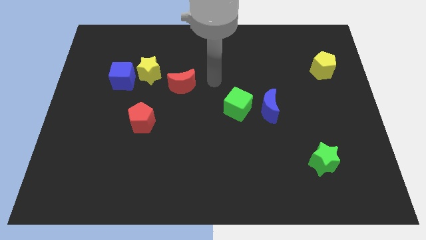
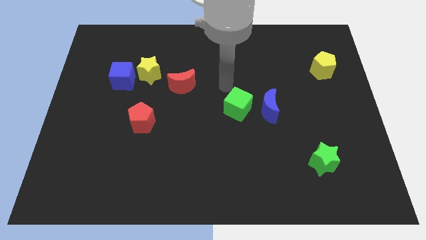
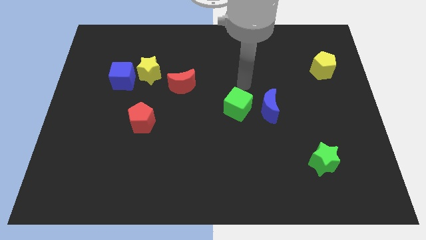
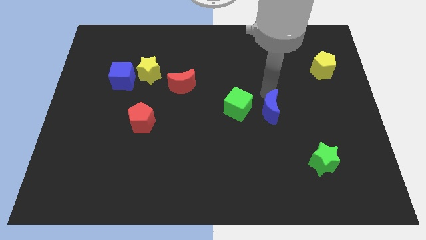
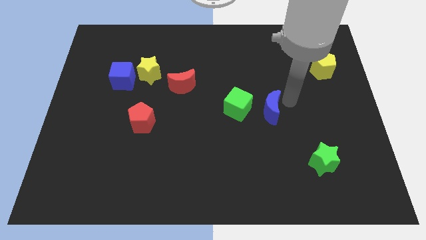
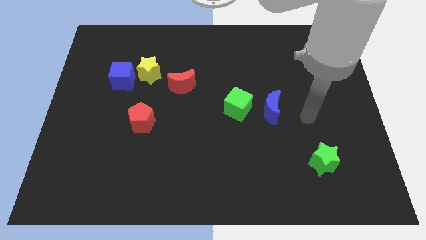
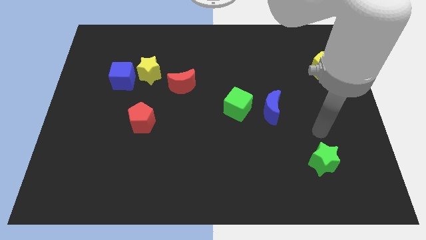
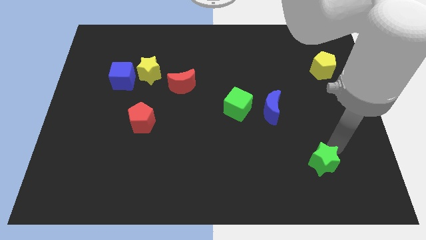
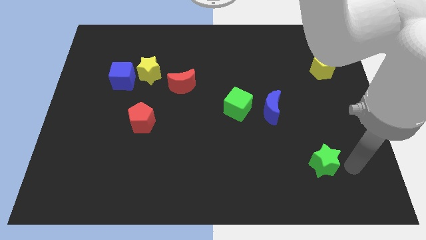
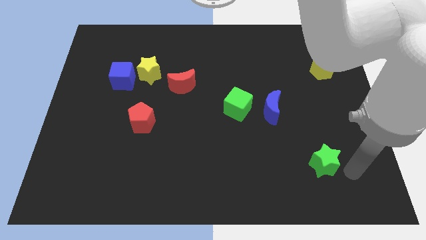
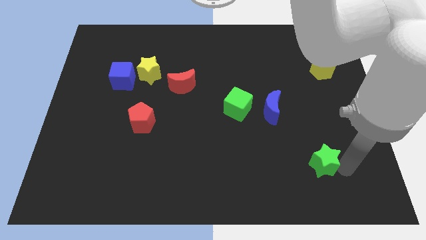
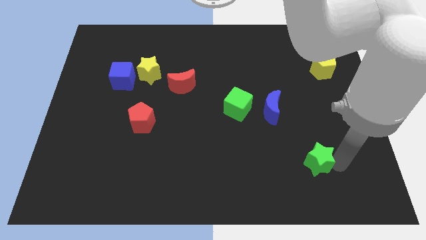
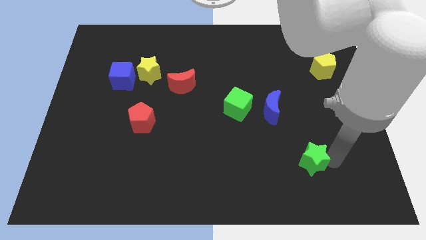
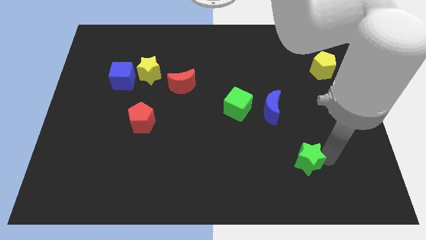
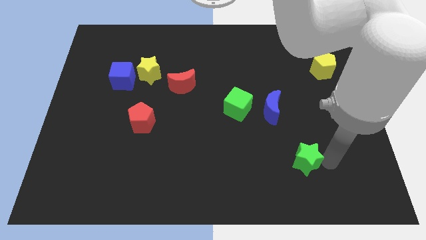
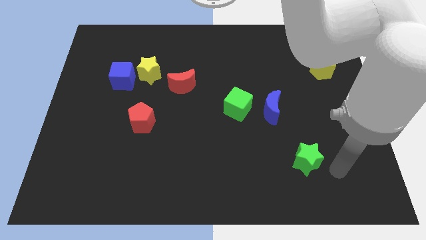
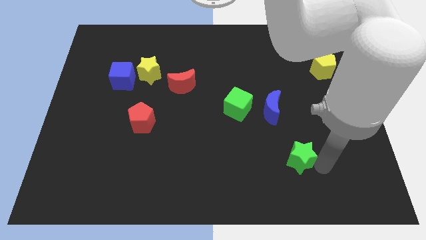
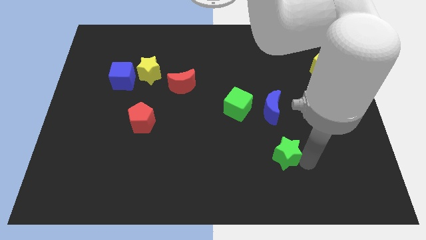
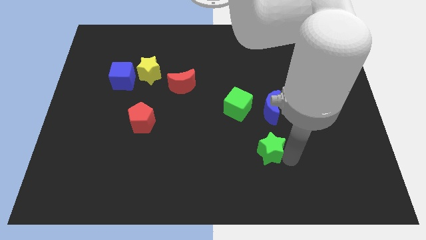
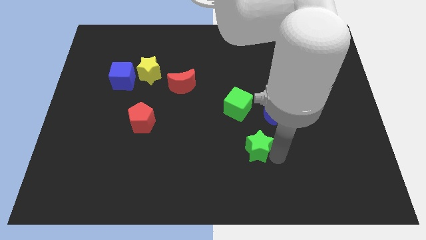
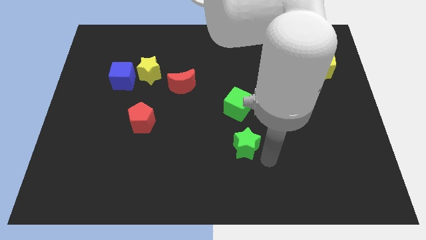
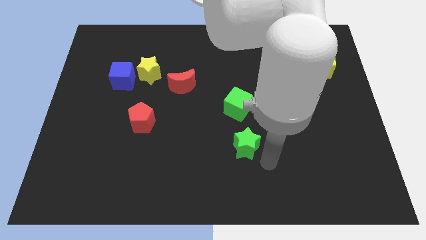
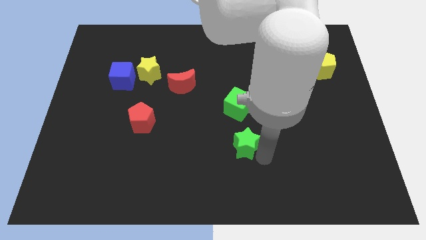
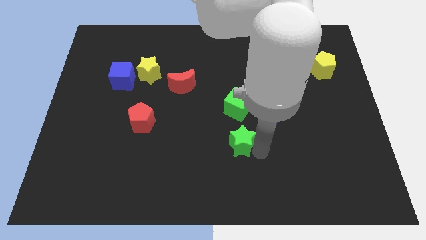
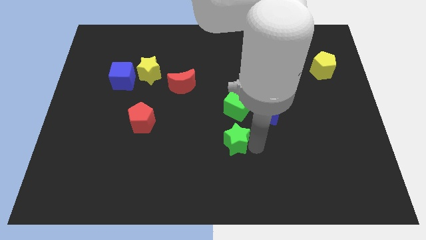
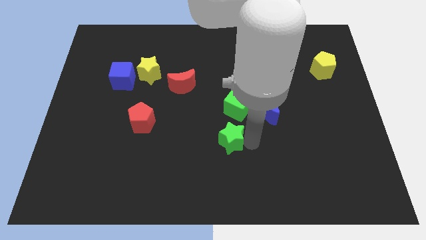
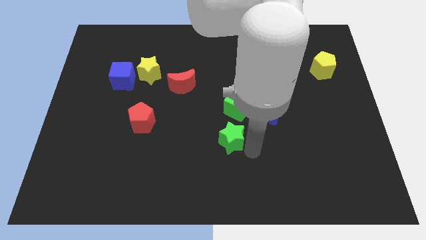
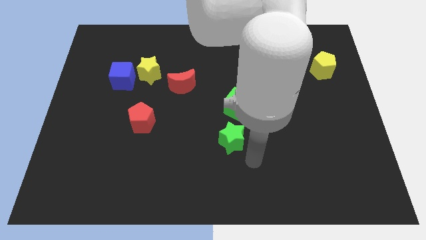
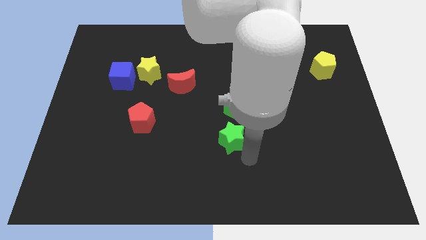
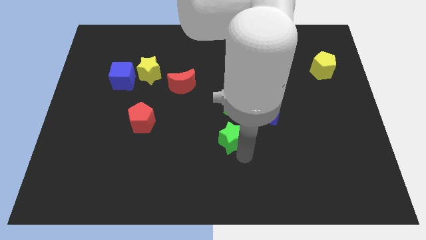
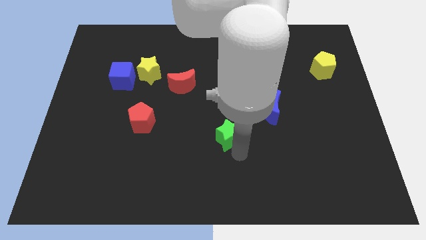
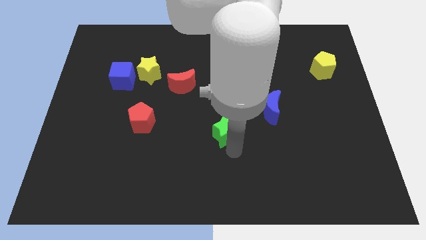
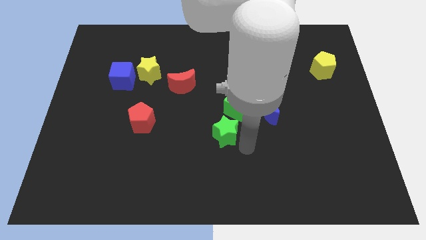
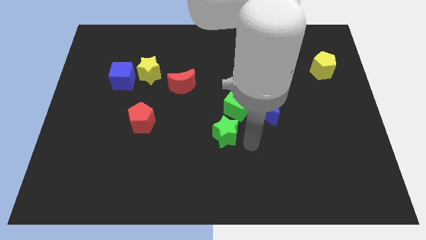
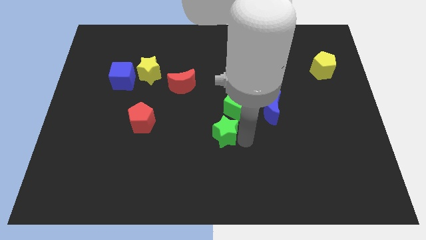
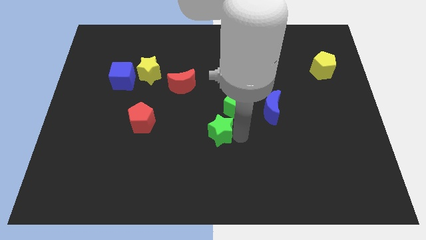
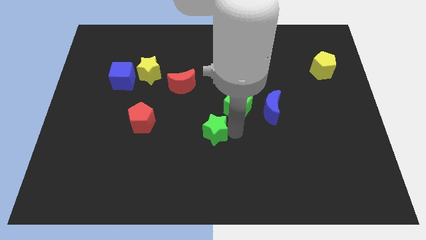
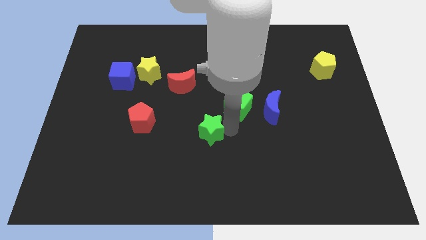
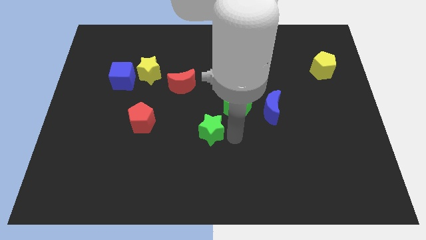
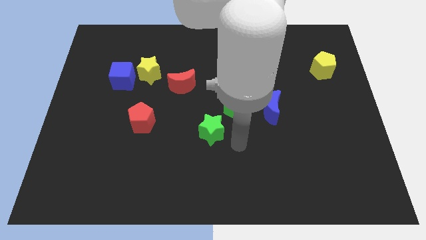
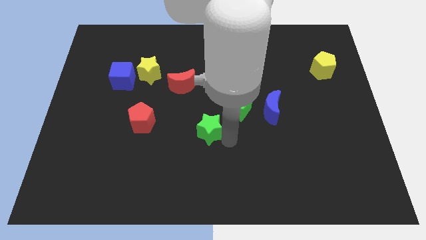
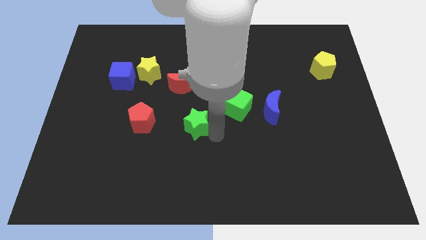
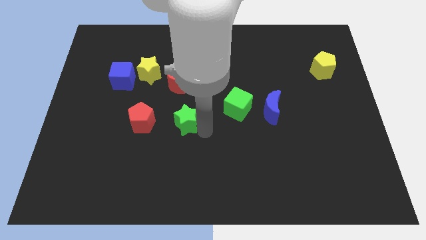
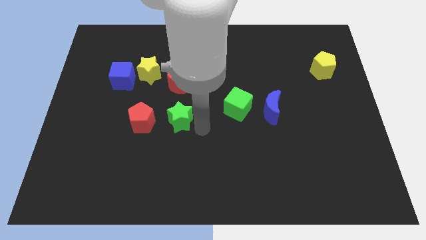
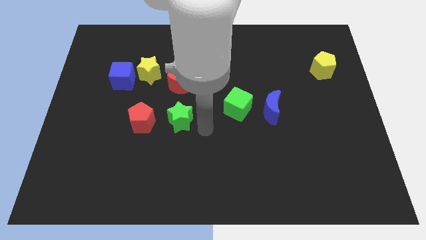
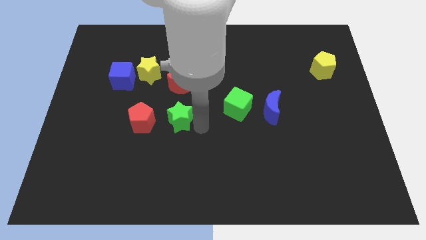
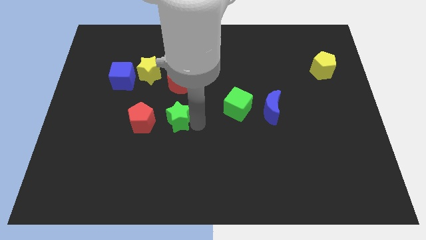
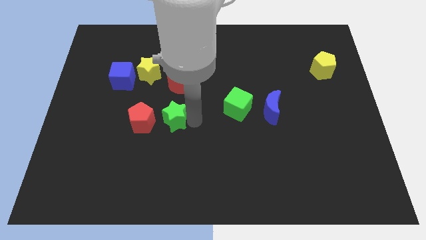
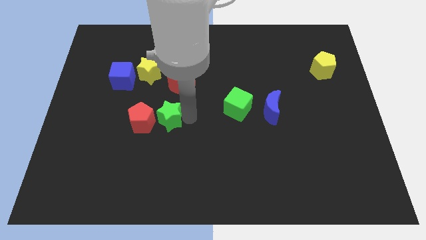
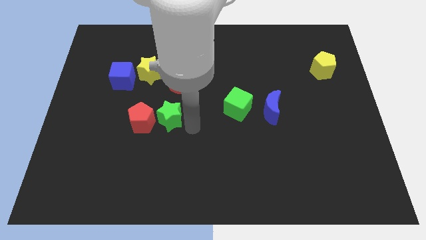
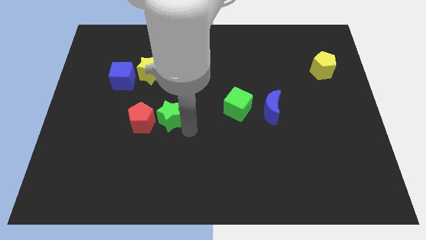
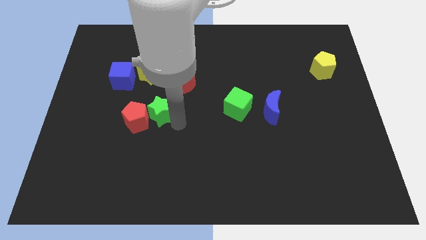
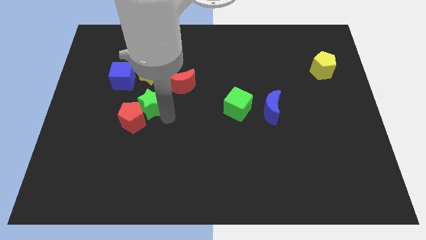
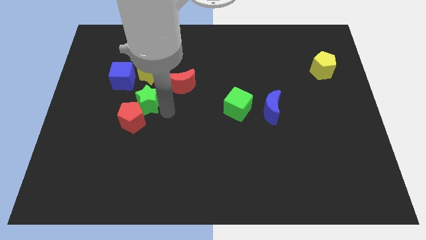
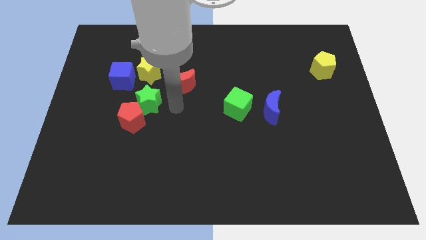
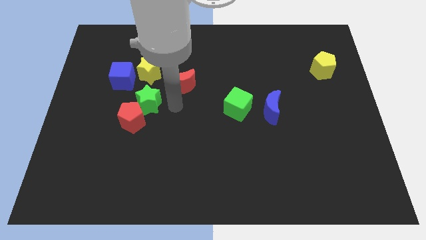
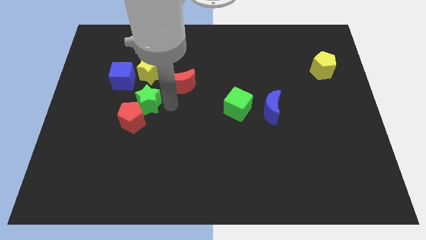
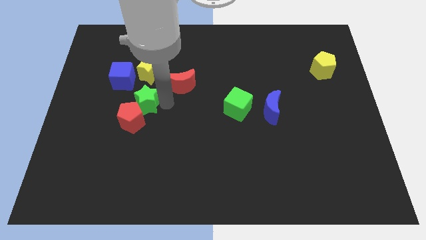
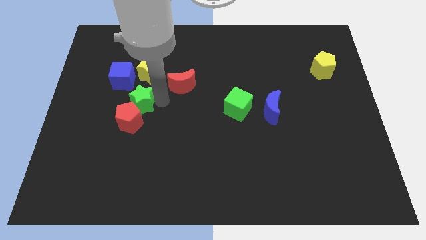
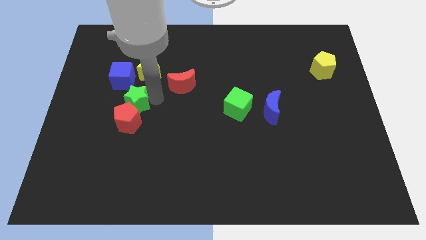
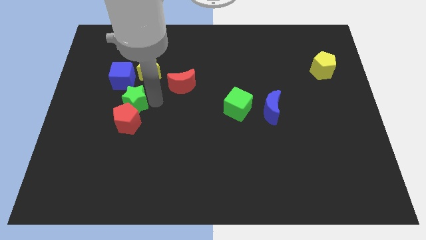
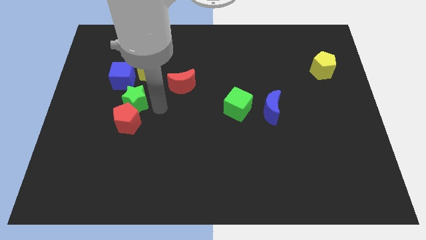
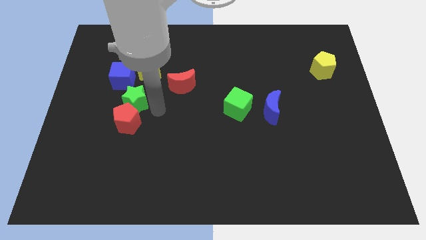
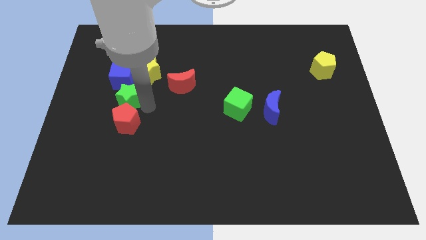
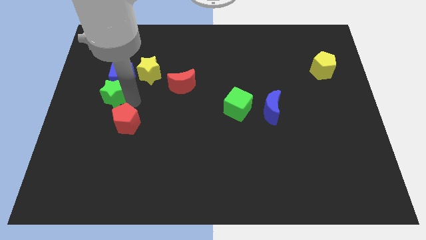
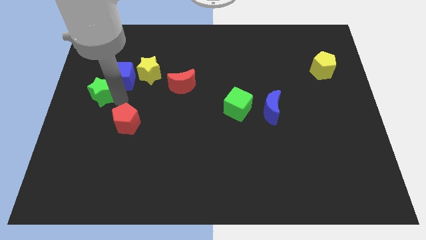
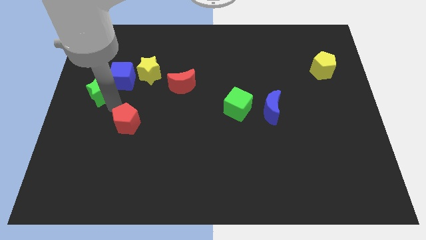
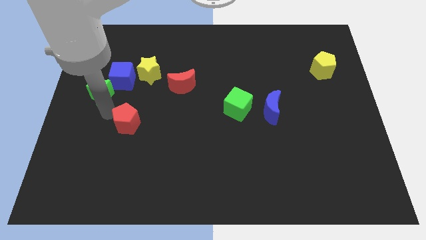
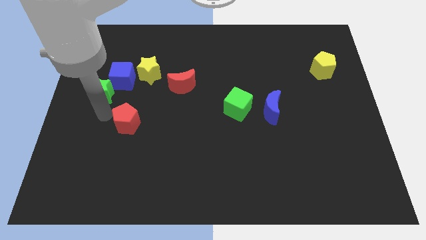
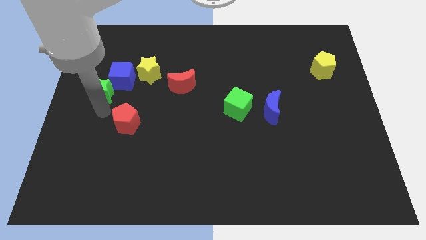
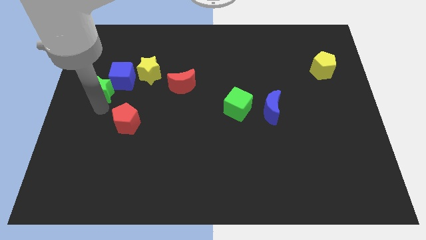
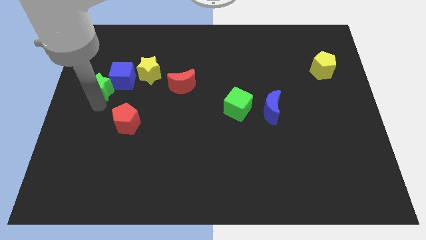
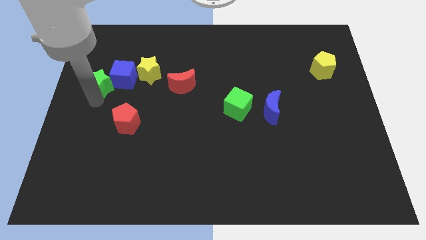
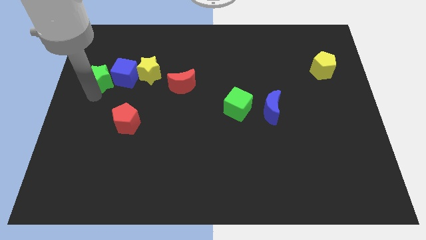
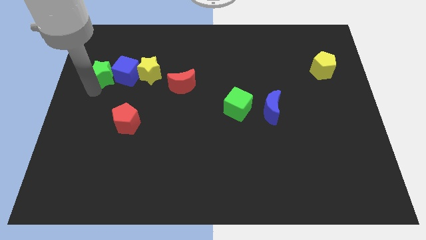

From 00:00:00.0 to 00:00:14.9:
move the green star to the top left of the blue cube
